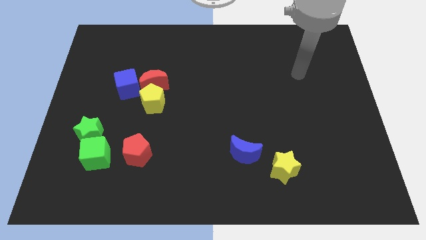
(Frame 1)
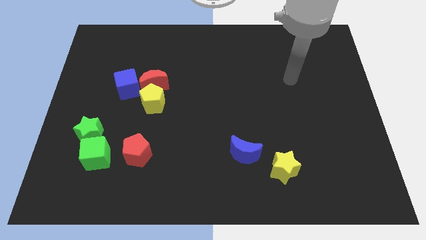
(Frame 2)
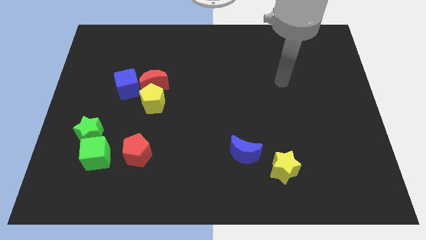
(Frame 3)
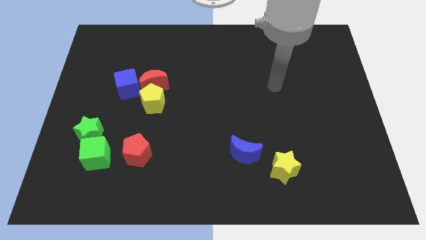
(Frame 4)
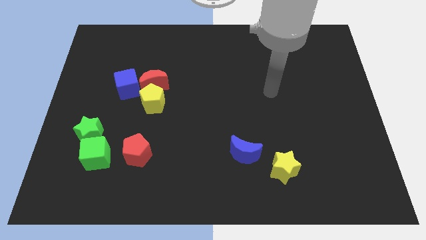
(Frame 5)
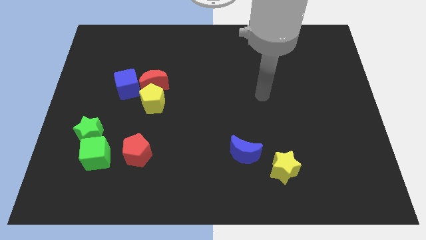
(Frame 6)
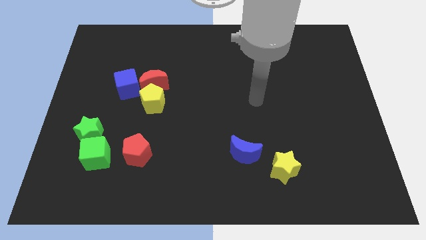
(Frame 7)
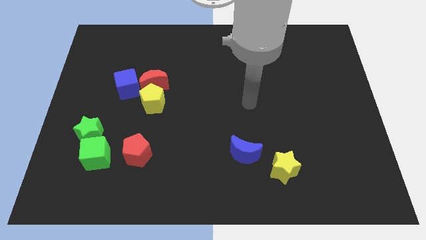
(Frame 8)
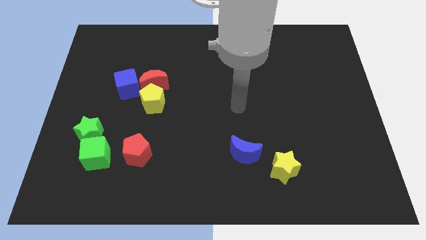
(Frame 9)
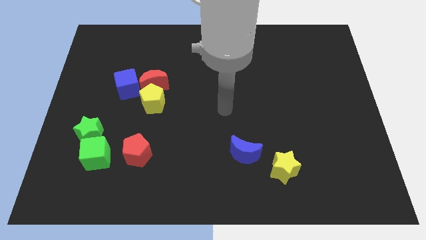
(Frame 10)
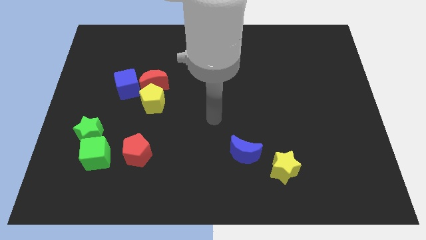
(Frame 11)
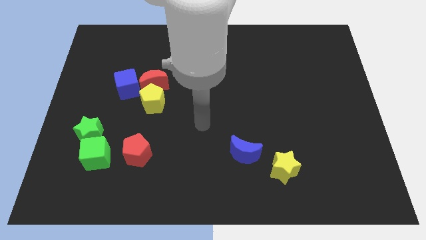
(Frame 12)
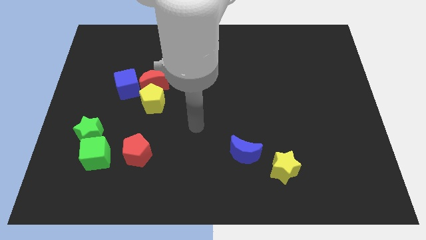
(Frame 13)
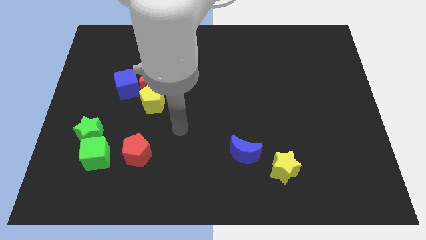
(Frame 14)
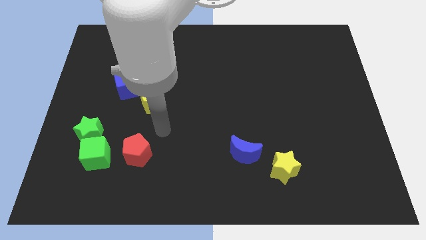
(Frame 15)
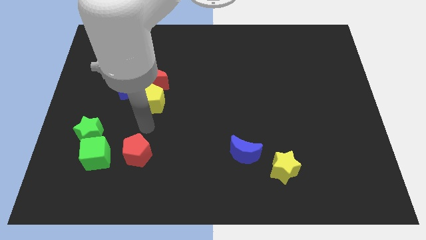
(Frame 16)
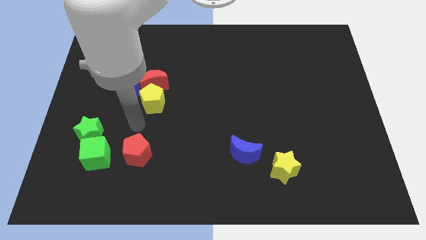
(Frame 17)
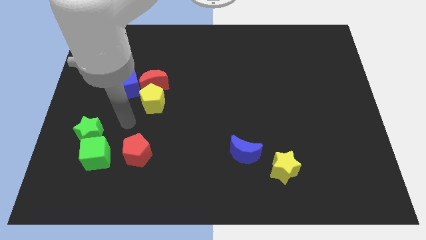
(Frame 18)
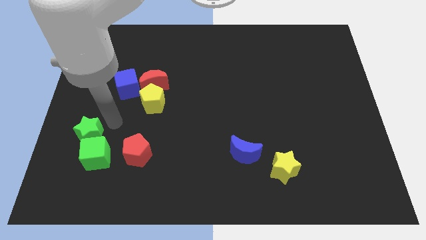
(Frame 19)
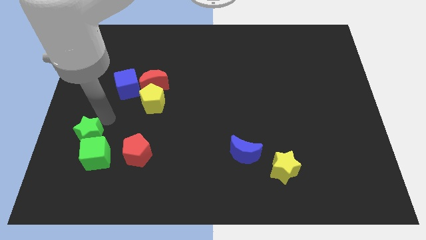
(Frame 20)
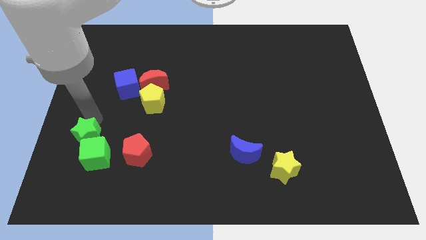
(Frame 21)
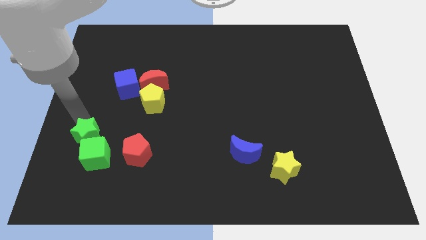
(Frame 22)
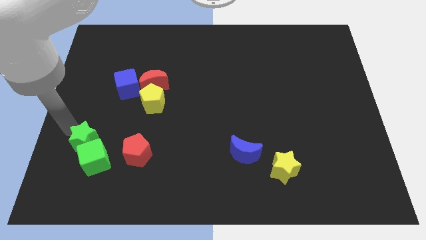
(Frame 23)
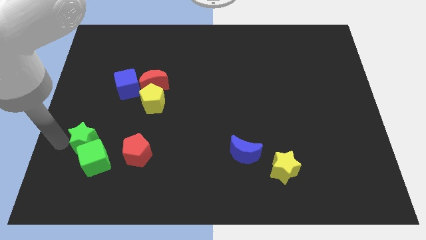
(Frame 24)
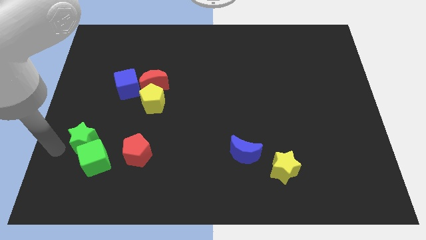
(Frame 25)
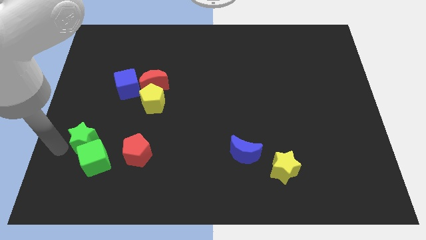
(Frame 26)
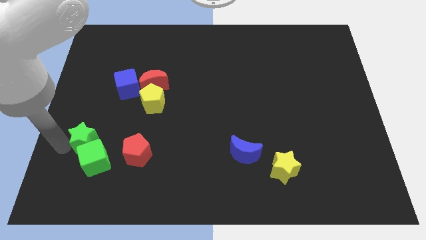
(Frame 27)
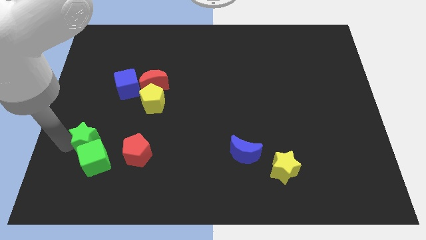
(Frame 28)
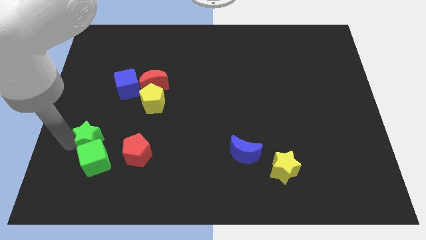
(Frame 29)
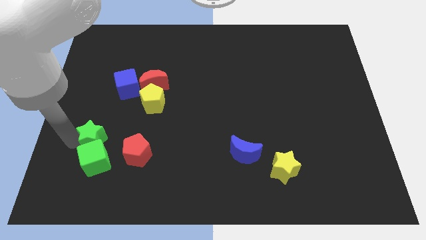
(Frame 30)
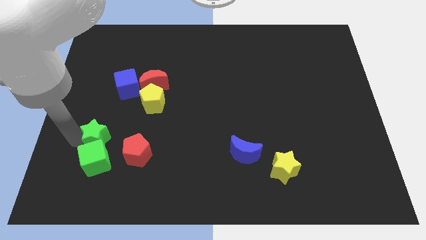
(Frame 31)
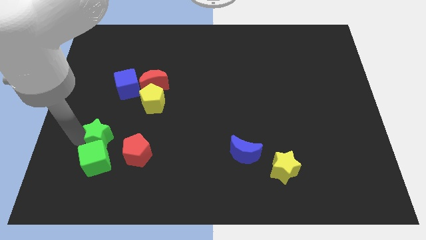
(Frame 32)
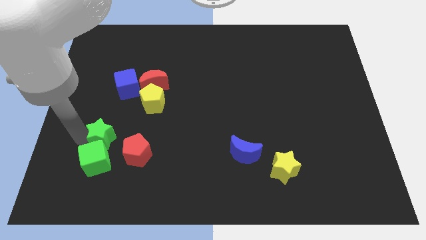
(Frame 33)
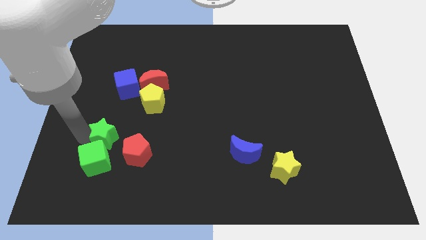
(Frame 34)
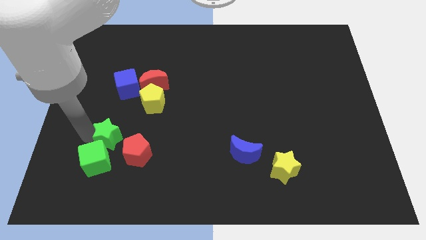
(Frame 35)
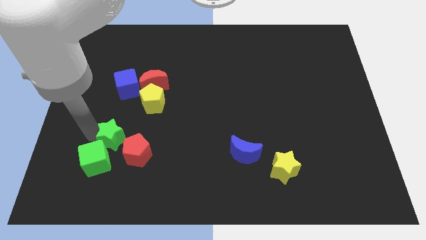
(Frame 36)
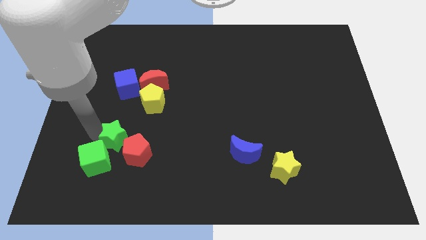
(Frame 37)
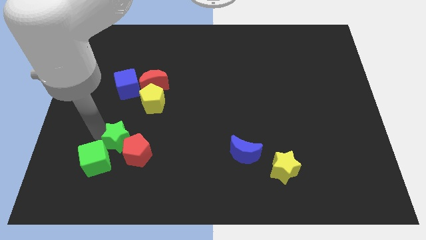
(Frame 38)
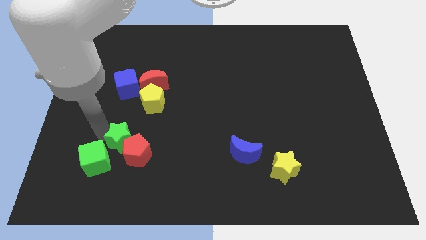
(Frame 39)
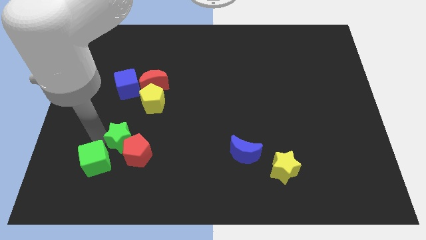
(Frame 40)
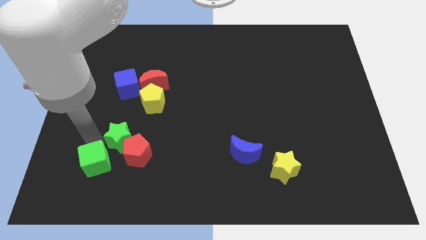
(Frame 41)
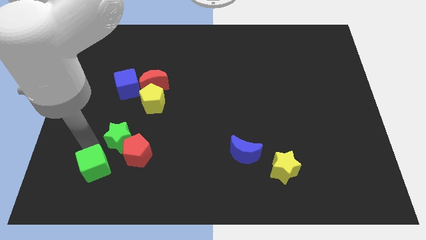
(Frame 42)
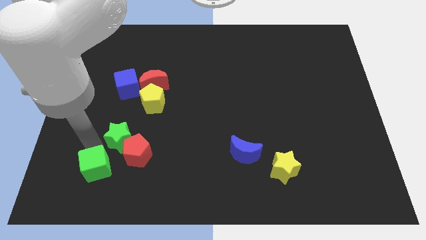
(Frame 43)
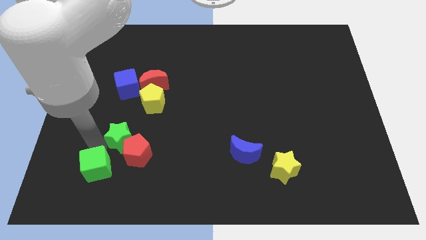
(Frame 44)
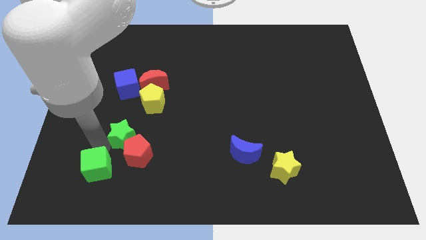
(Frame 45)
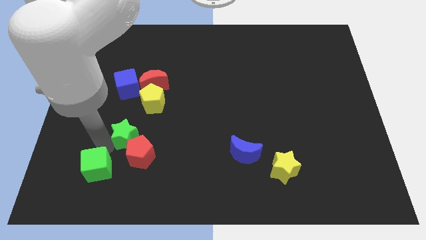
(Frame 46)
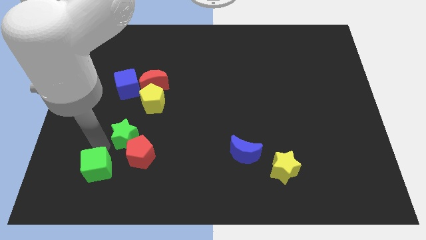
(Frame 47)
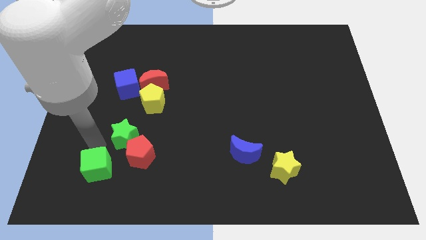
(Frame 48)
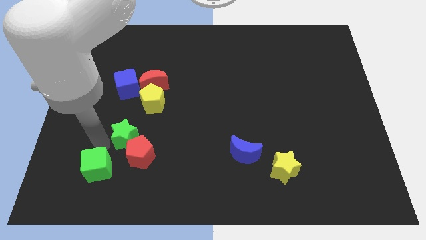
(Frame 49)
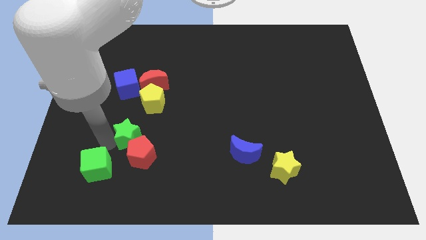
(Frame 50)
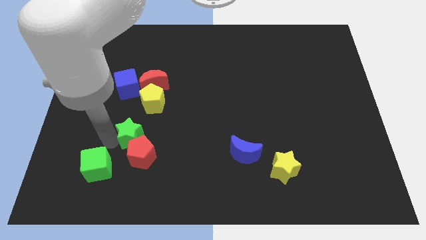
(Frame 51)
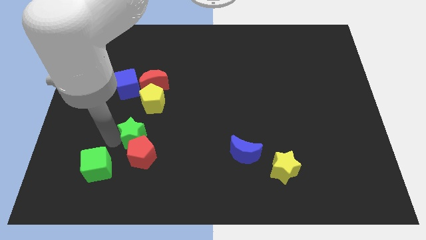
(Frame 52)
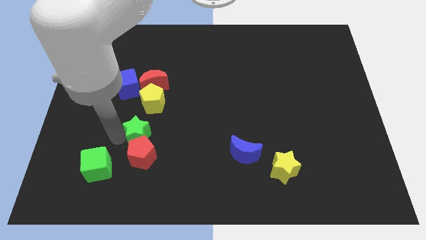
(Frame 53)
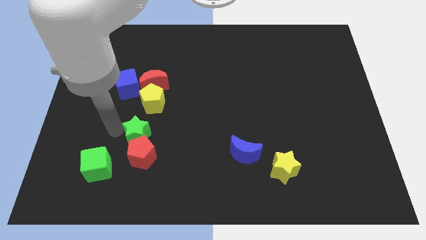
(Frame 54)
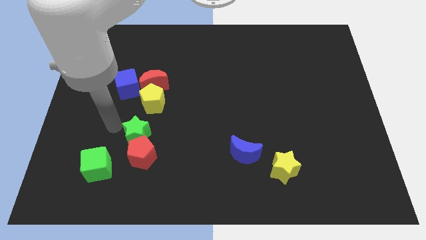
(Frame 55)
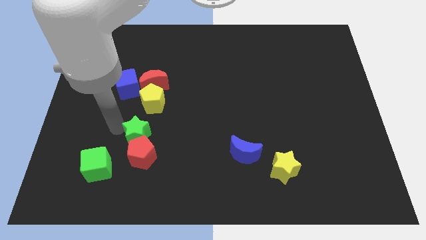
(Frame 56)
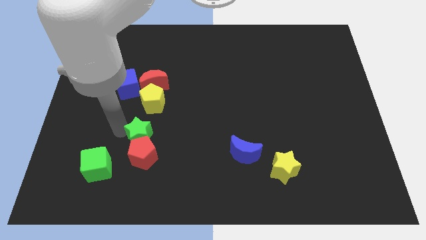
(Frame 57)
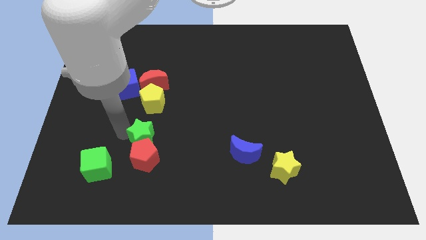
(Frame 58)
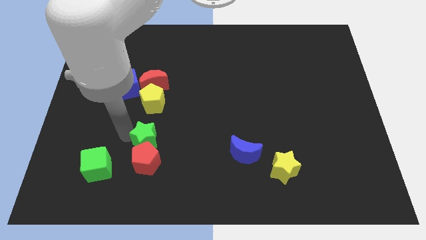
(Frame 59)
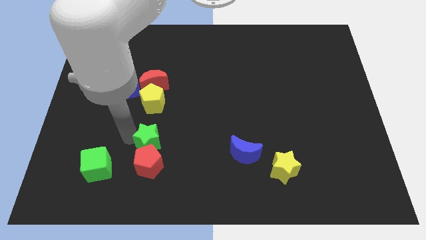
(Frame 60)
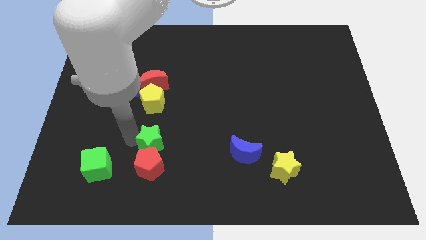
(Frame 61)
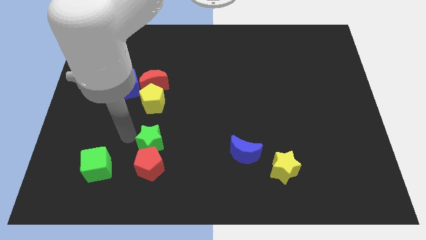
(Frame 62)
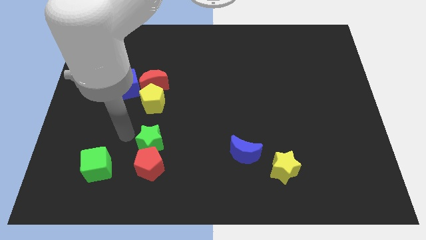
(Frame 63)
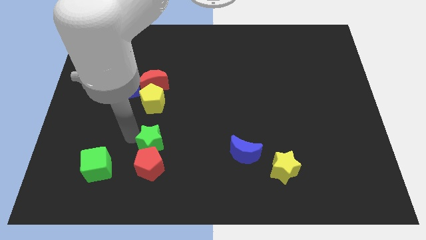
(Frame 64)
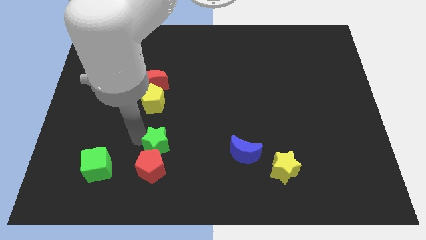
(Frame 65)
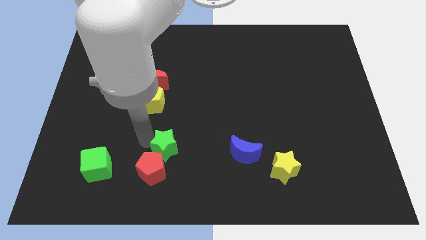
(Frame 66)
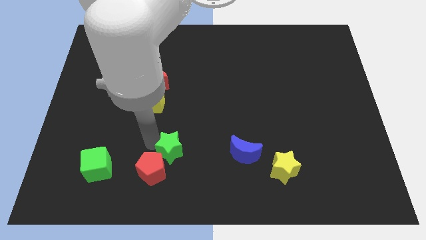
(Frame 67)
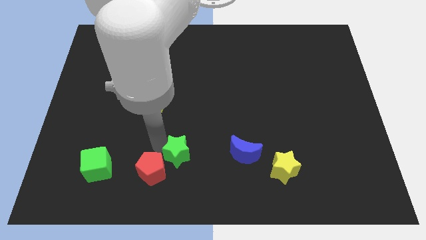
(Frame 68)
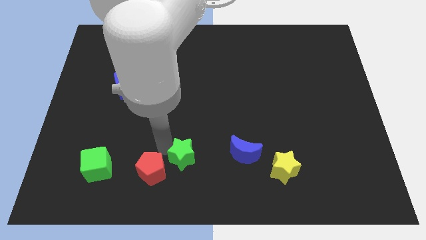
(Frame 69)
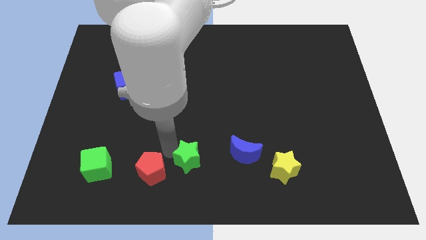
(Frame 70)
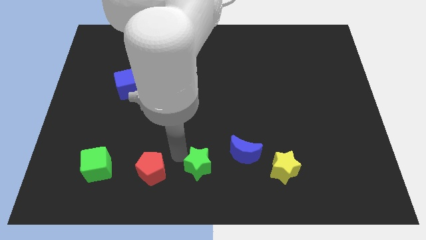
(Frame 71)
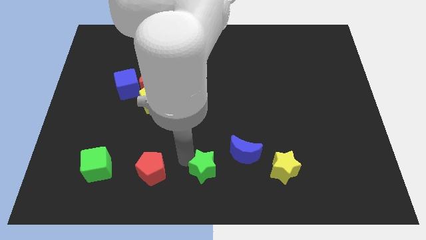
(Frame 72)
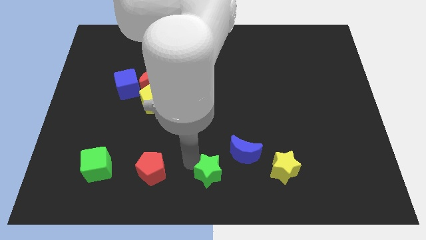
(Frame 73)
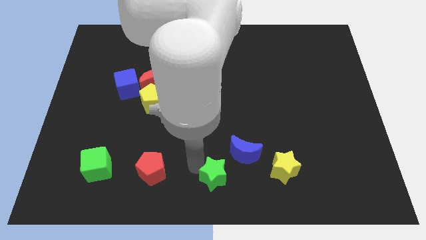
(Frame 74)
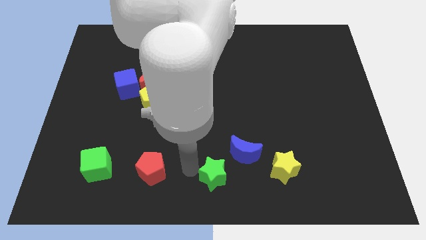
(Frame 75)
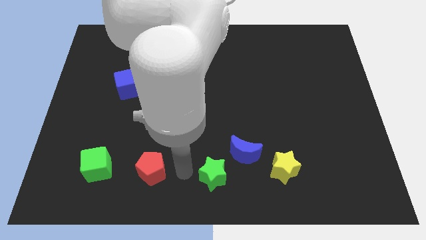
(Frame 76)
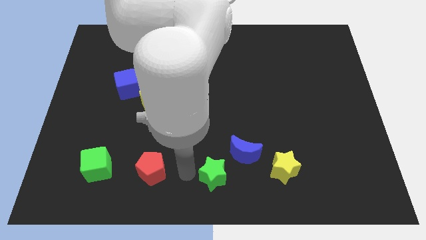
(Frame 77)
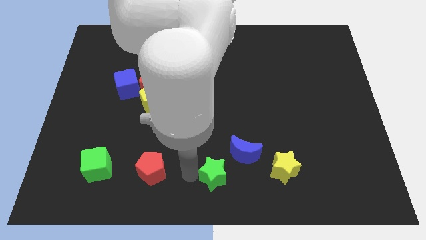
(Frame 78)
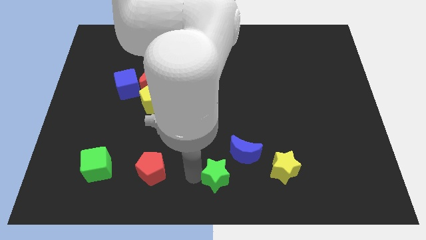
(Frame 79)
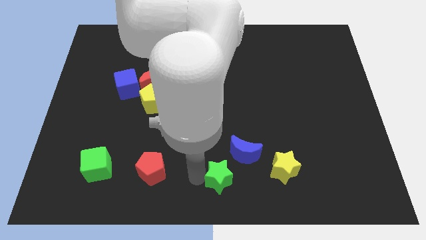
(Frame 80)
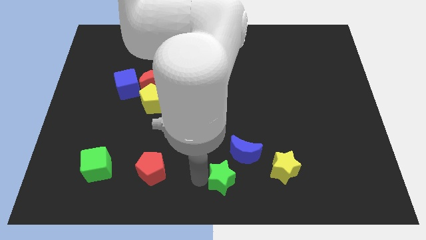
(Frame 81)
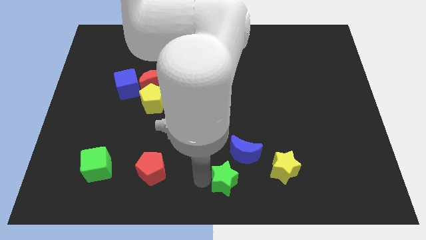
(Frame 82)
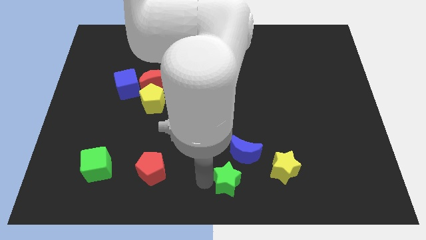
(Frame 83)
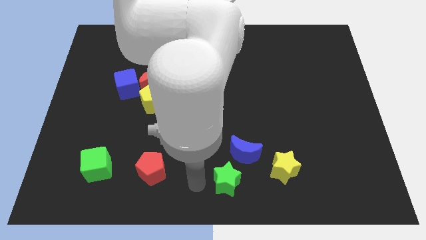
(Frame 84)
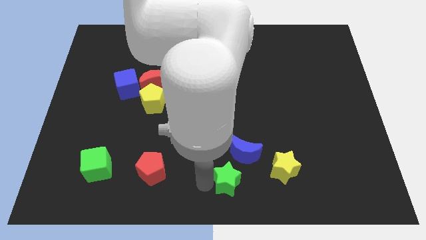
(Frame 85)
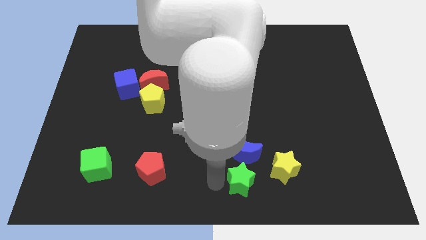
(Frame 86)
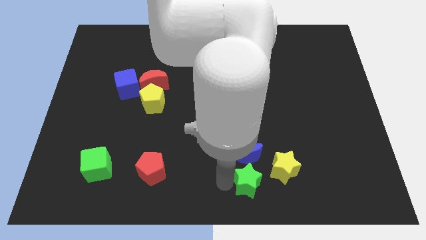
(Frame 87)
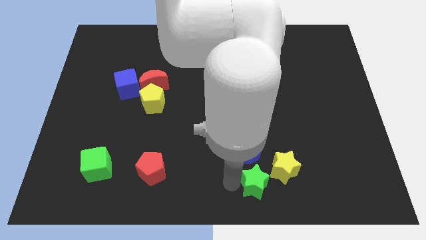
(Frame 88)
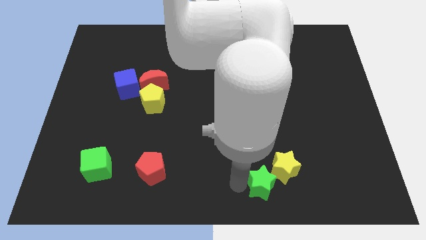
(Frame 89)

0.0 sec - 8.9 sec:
push the green star to the yellow star
